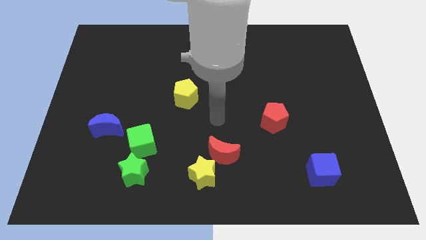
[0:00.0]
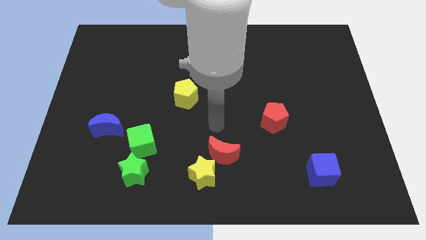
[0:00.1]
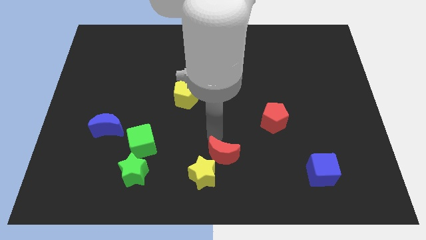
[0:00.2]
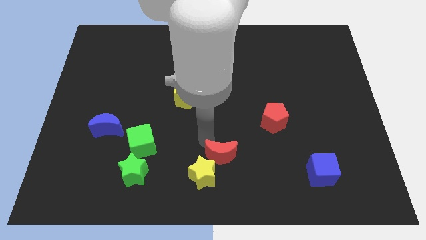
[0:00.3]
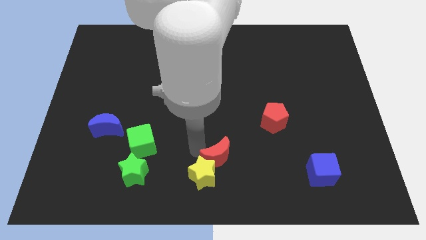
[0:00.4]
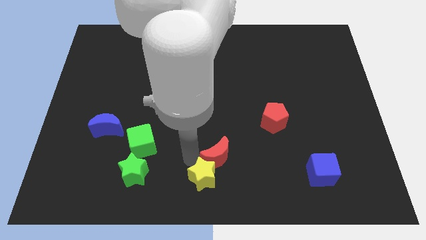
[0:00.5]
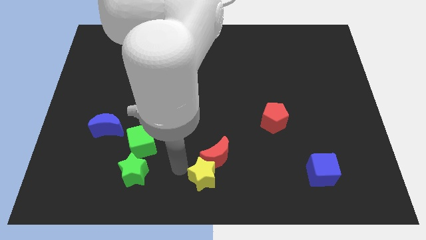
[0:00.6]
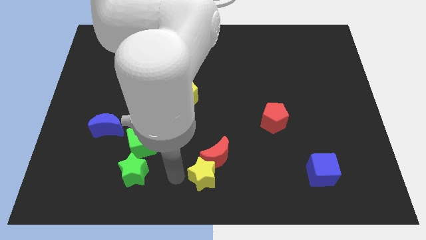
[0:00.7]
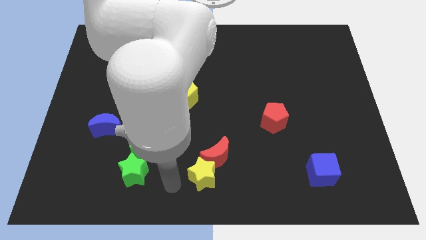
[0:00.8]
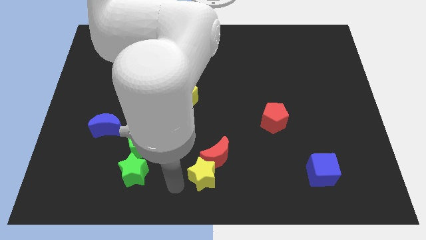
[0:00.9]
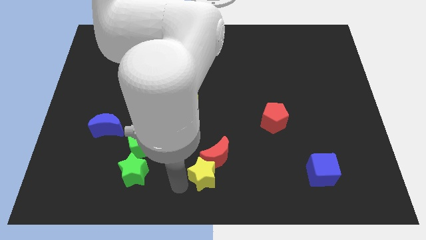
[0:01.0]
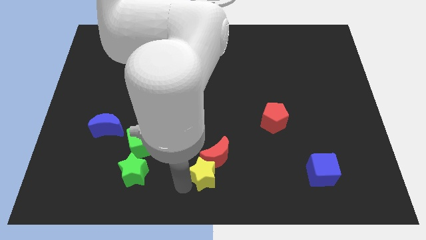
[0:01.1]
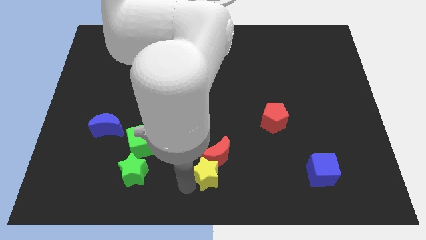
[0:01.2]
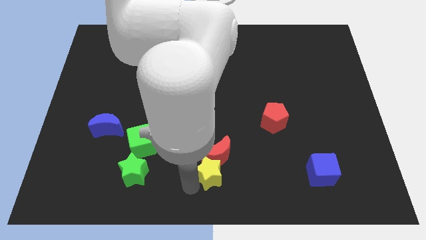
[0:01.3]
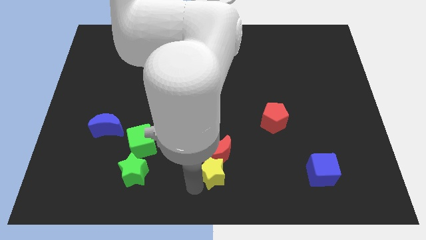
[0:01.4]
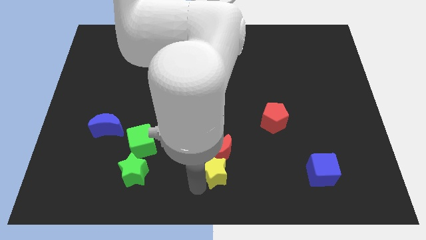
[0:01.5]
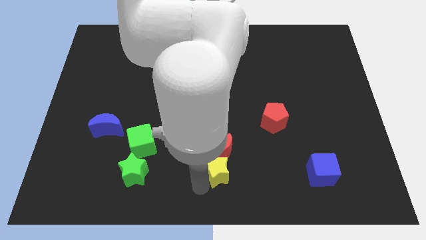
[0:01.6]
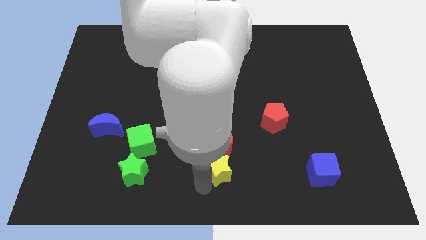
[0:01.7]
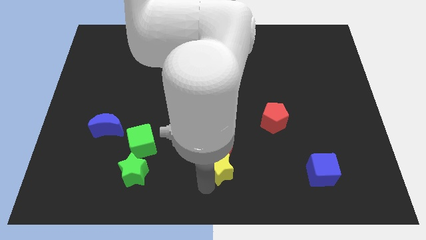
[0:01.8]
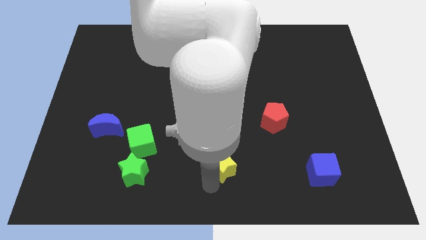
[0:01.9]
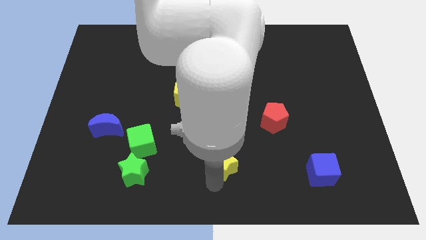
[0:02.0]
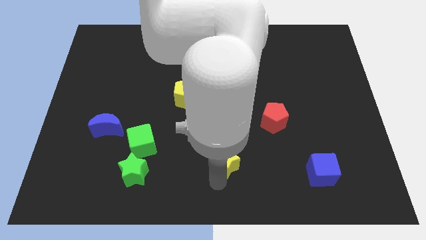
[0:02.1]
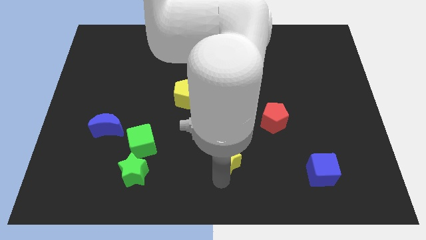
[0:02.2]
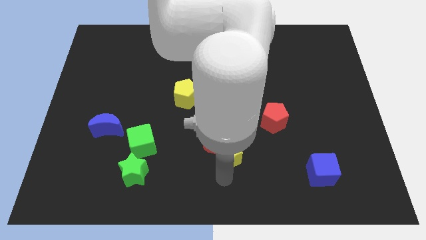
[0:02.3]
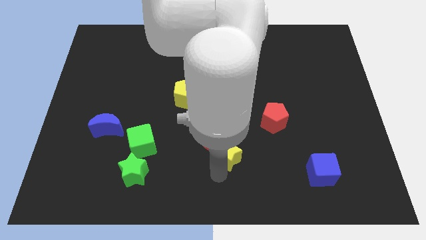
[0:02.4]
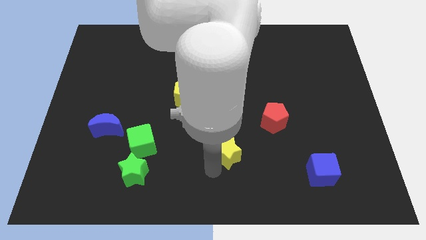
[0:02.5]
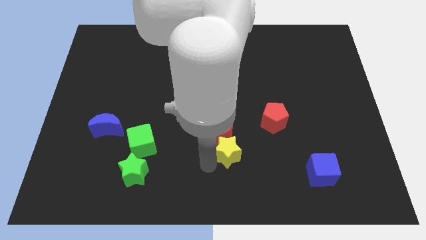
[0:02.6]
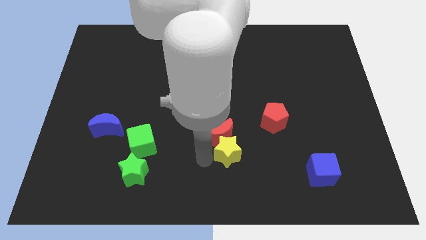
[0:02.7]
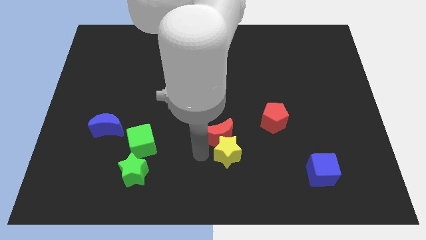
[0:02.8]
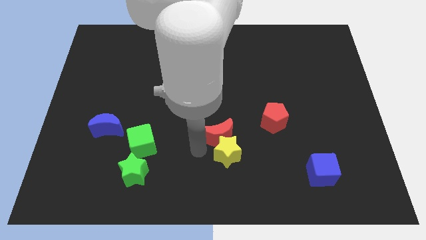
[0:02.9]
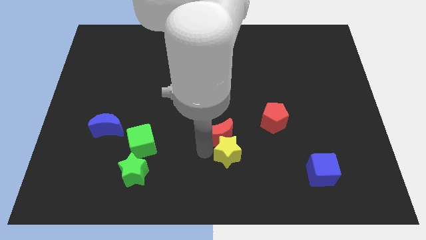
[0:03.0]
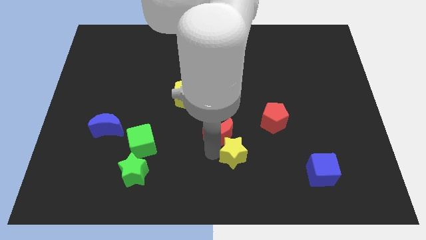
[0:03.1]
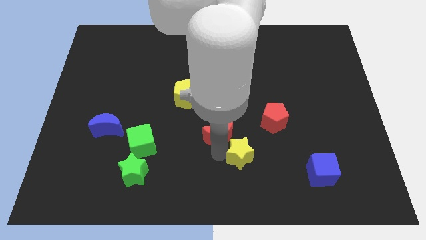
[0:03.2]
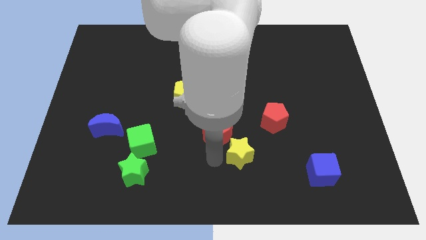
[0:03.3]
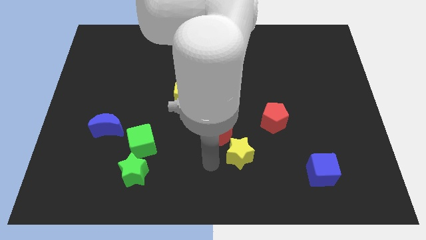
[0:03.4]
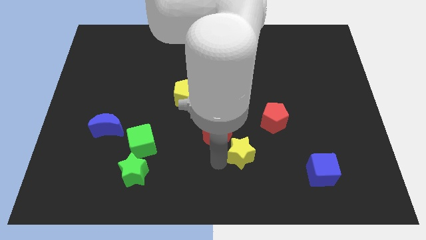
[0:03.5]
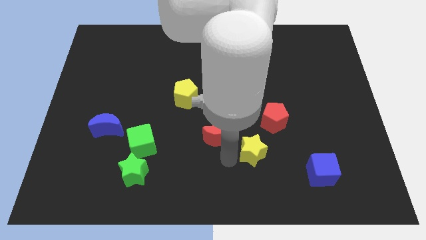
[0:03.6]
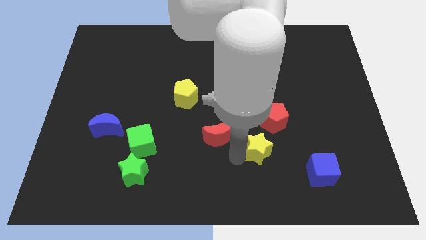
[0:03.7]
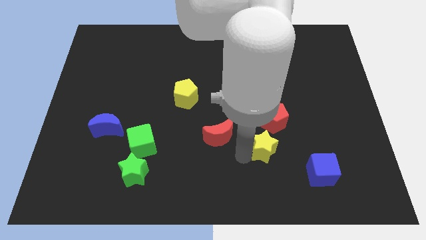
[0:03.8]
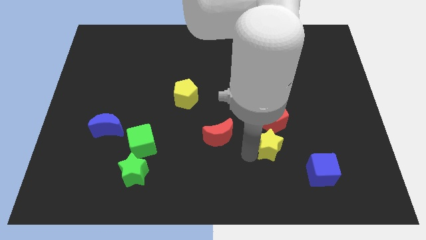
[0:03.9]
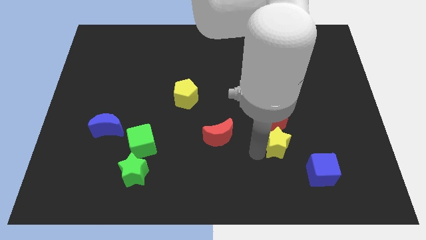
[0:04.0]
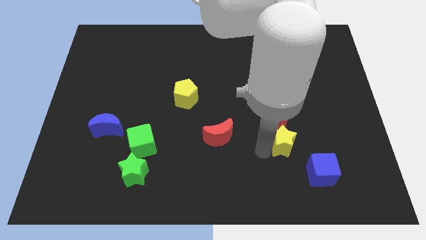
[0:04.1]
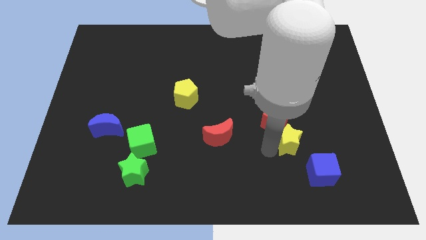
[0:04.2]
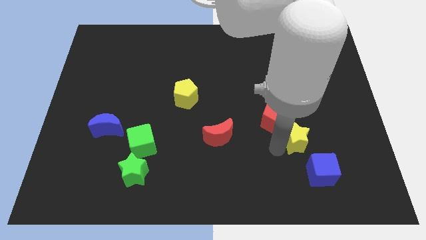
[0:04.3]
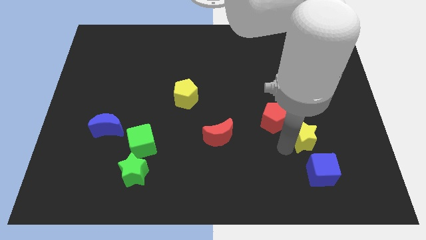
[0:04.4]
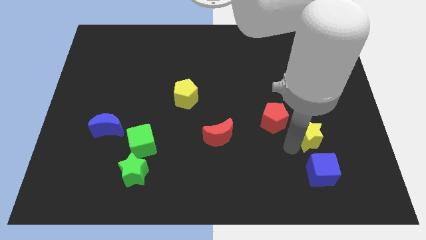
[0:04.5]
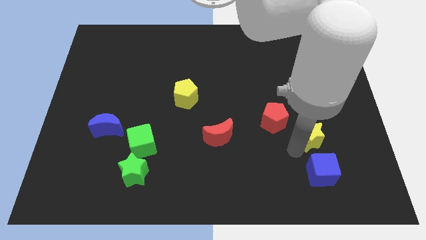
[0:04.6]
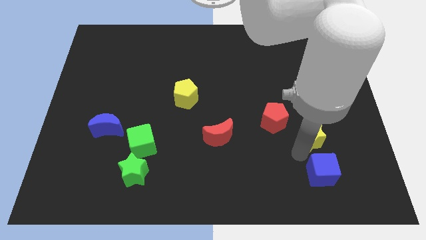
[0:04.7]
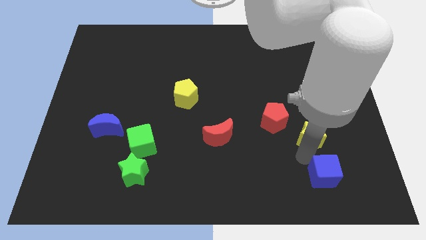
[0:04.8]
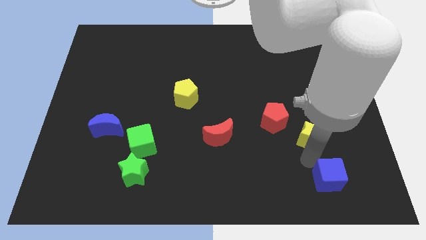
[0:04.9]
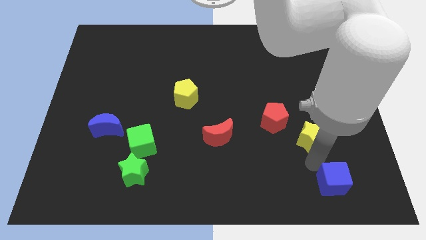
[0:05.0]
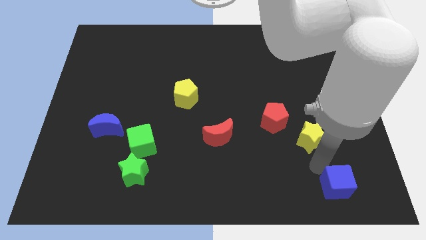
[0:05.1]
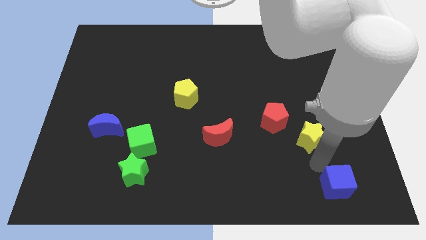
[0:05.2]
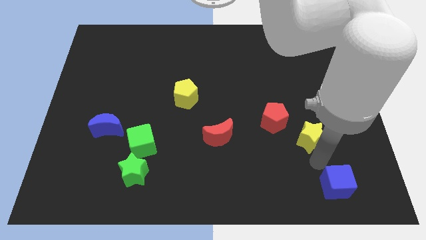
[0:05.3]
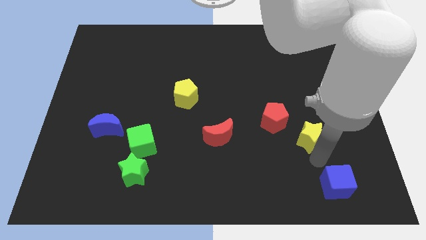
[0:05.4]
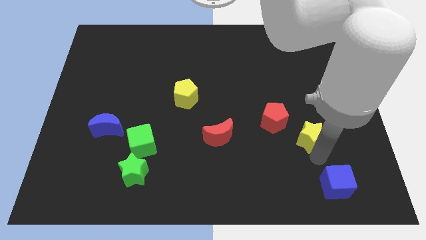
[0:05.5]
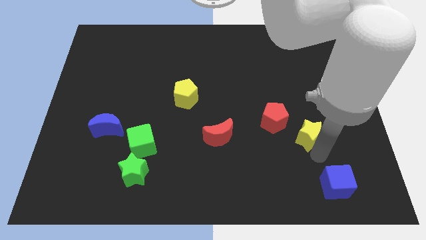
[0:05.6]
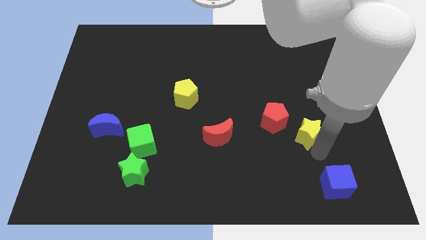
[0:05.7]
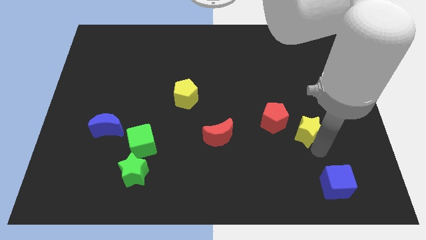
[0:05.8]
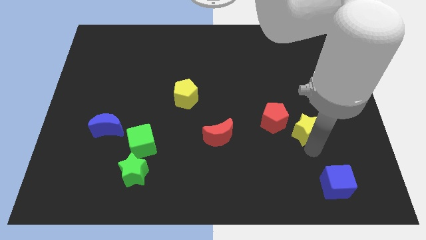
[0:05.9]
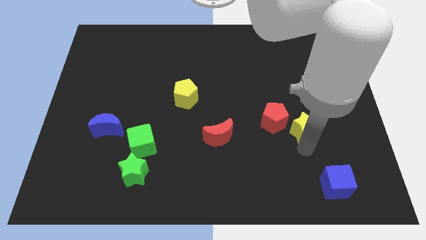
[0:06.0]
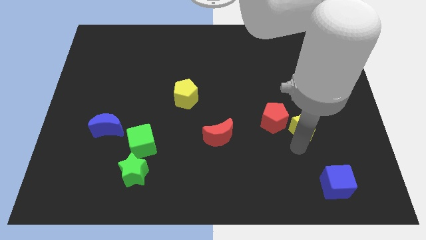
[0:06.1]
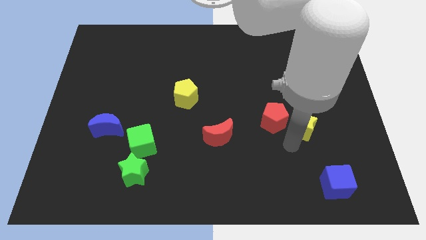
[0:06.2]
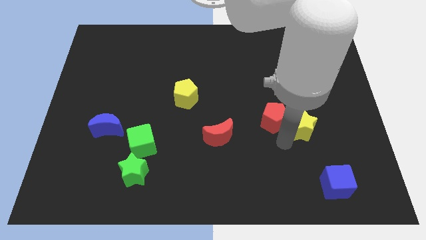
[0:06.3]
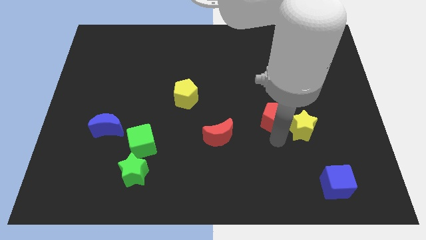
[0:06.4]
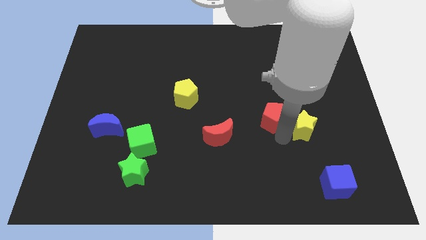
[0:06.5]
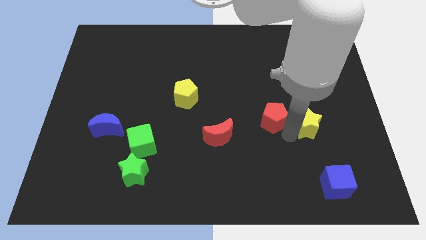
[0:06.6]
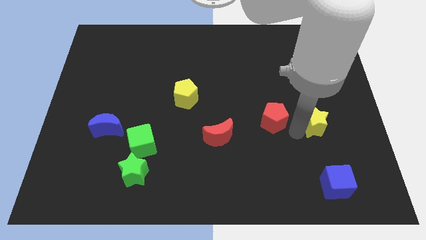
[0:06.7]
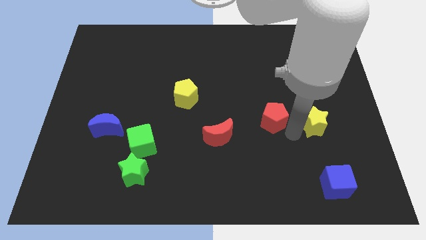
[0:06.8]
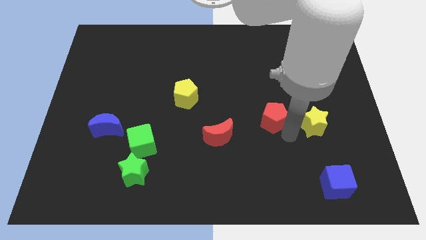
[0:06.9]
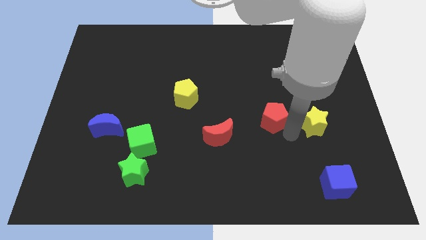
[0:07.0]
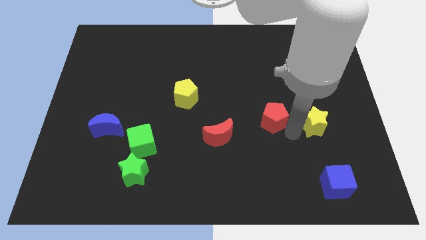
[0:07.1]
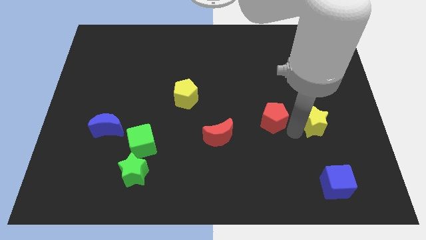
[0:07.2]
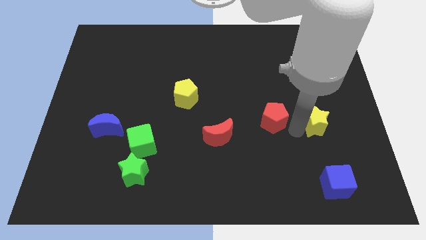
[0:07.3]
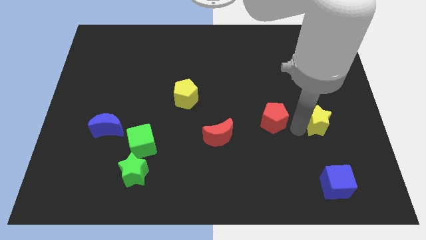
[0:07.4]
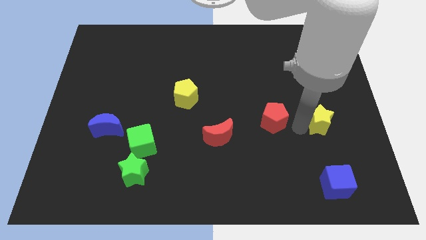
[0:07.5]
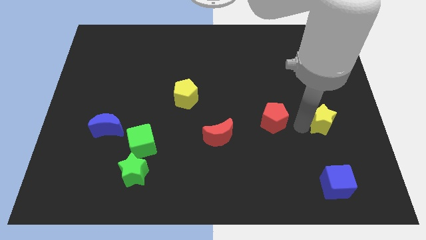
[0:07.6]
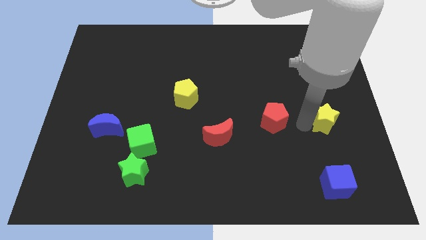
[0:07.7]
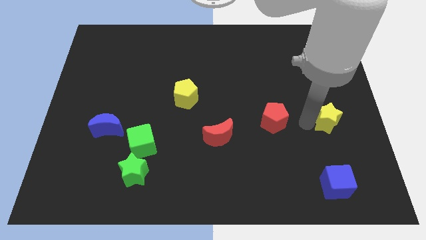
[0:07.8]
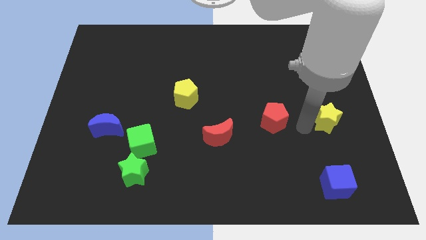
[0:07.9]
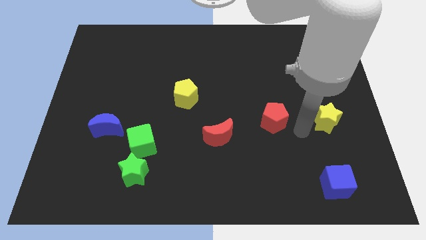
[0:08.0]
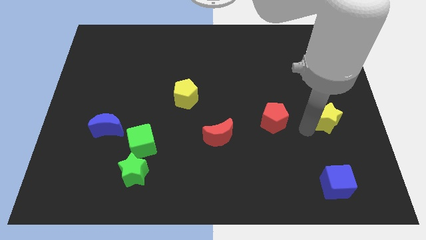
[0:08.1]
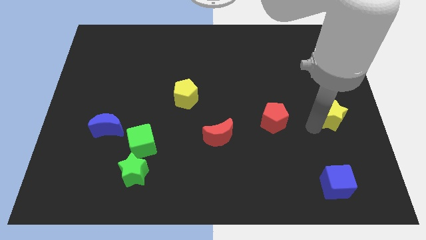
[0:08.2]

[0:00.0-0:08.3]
move the yellow star to the right side
